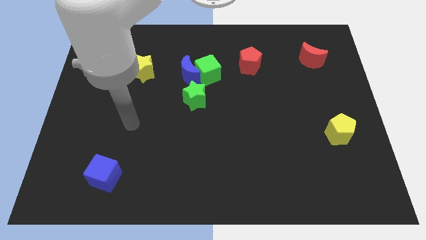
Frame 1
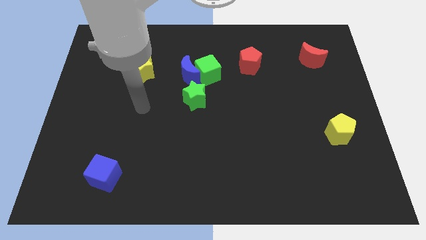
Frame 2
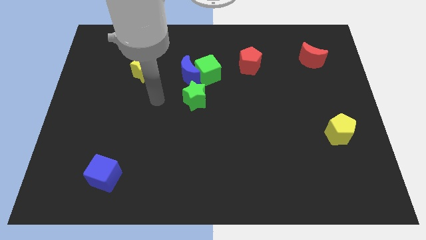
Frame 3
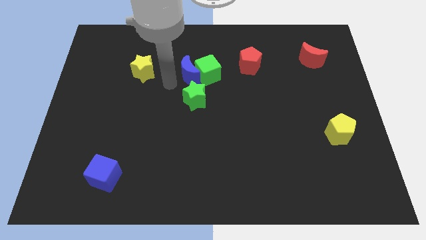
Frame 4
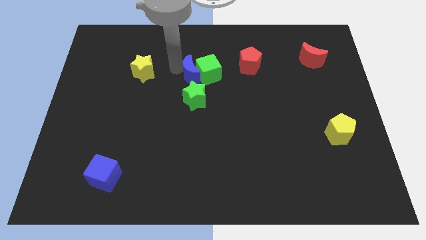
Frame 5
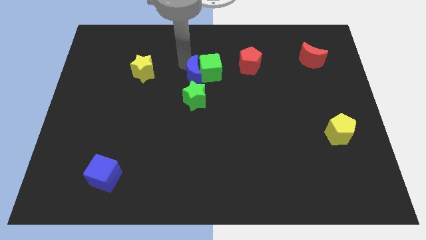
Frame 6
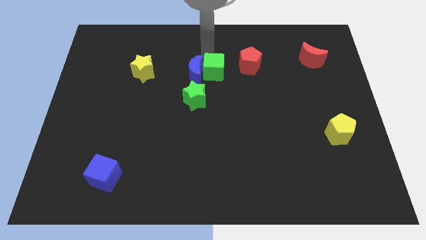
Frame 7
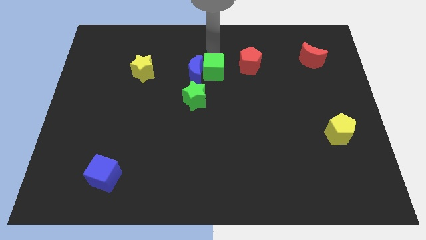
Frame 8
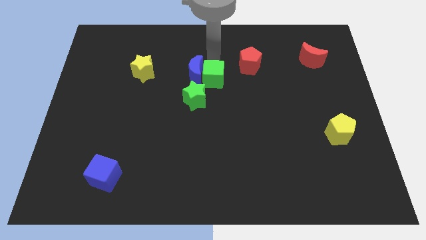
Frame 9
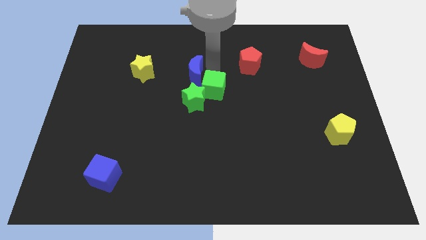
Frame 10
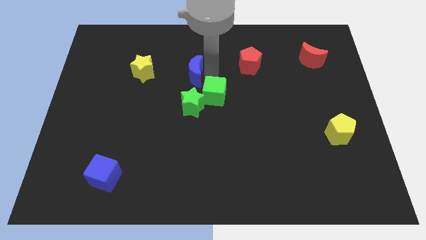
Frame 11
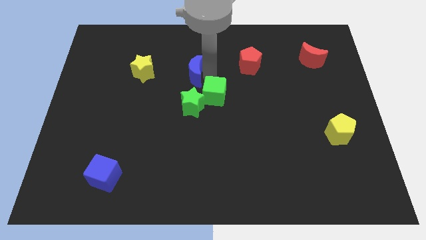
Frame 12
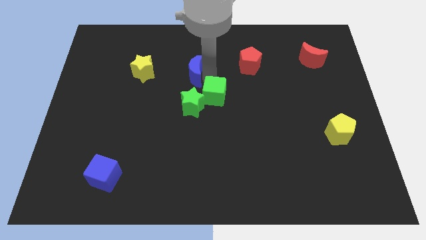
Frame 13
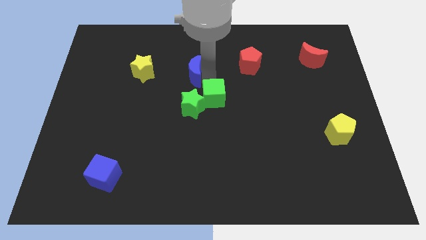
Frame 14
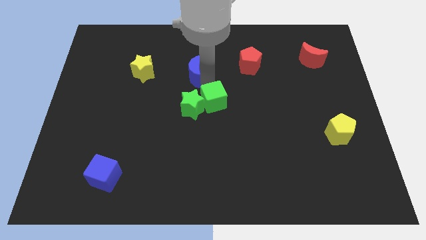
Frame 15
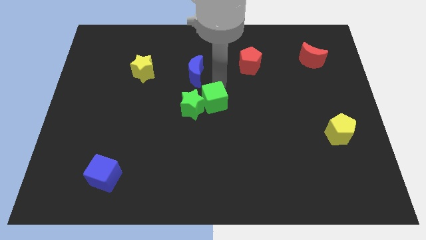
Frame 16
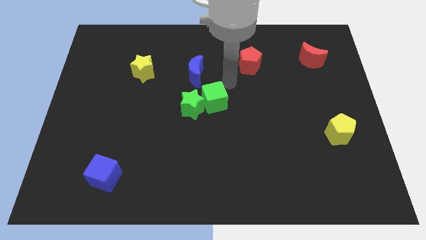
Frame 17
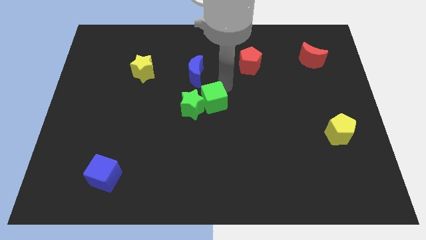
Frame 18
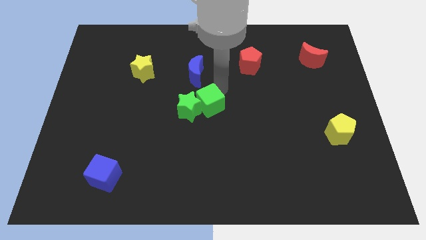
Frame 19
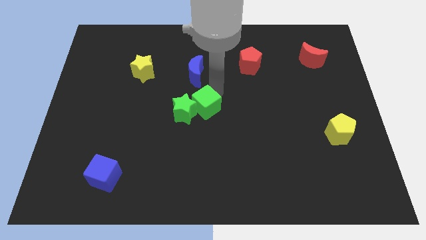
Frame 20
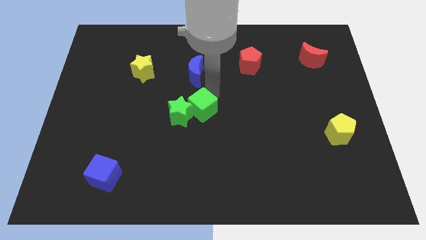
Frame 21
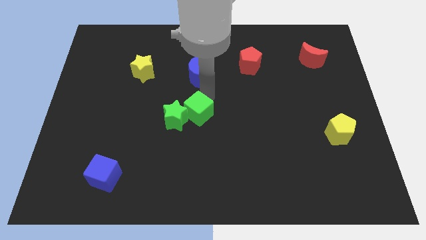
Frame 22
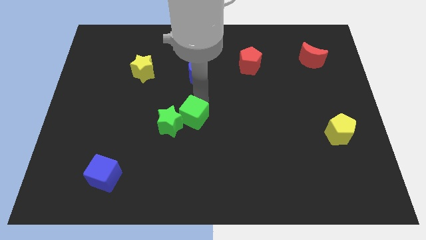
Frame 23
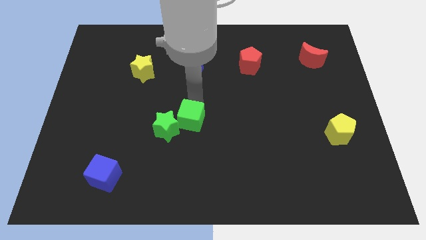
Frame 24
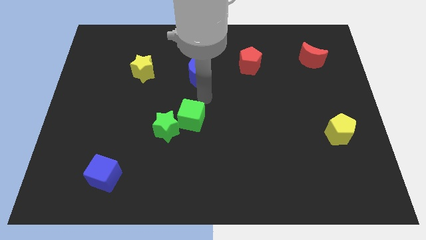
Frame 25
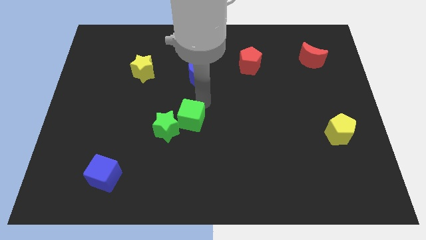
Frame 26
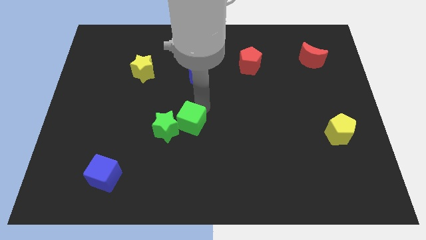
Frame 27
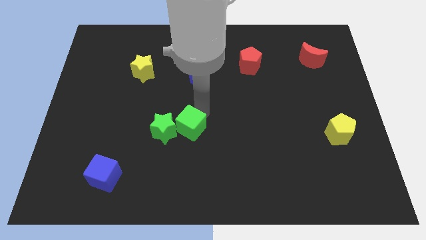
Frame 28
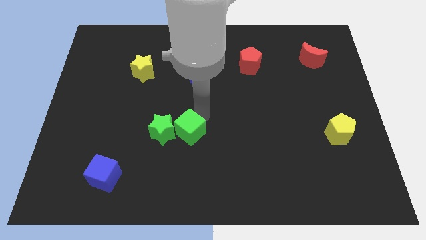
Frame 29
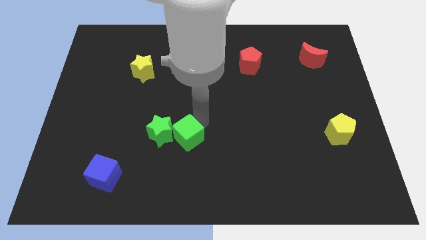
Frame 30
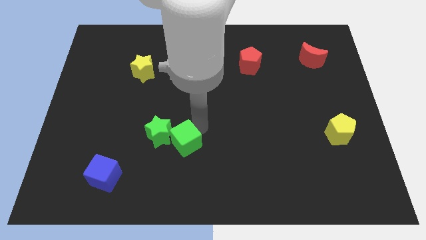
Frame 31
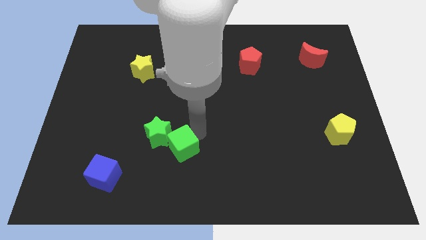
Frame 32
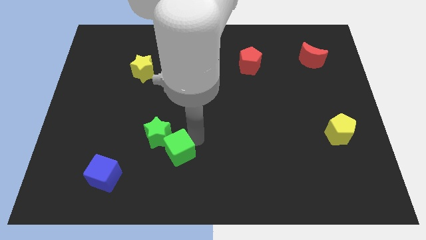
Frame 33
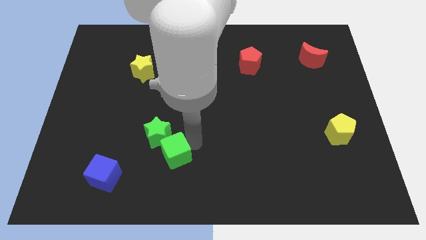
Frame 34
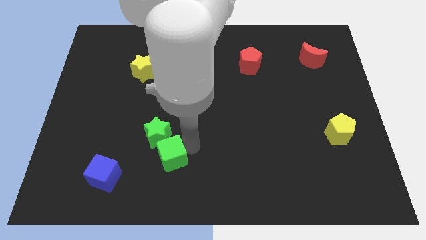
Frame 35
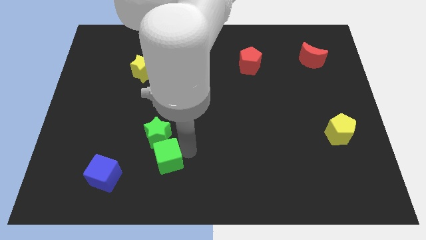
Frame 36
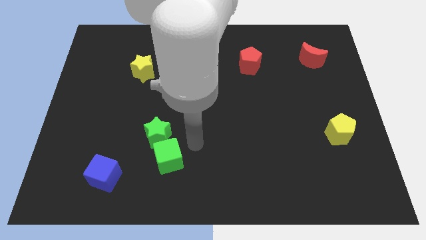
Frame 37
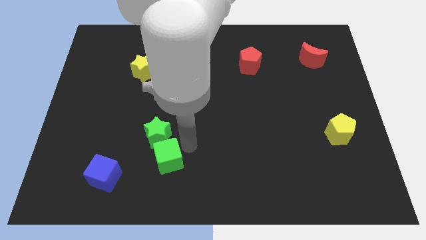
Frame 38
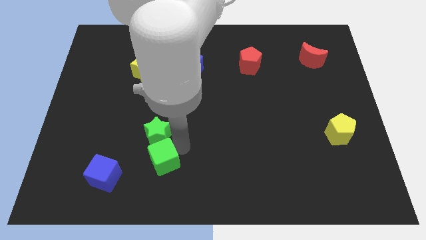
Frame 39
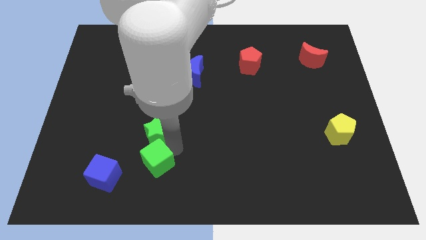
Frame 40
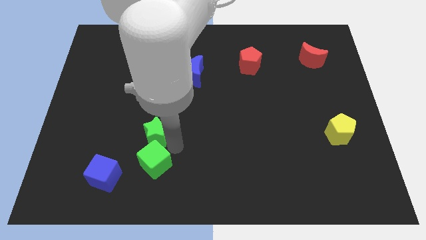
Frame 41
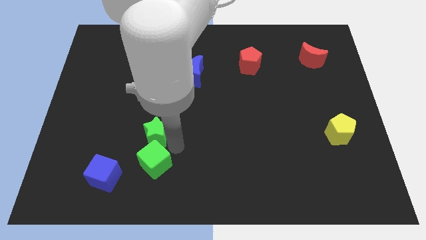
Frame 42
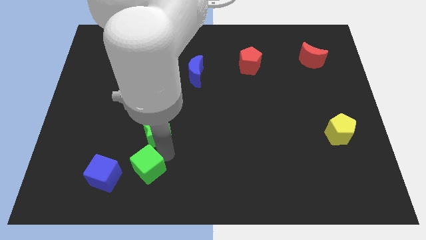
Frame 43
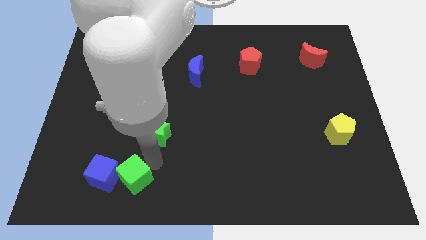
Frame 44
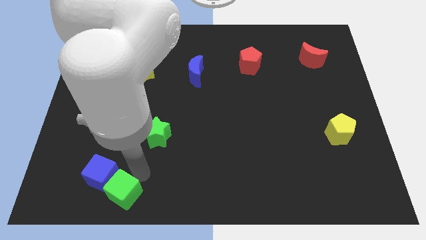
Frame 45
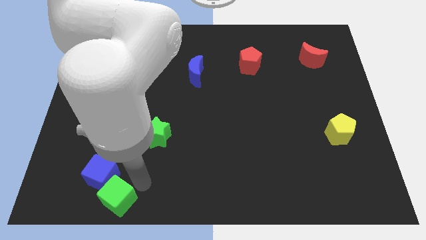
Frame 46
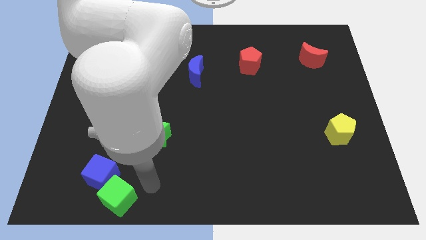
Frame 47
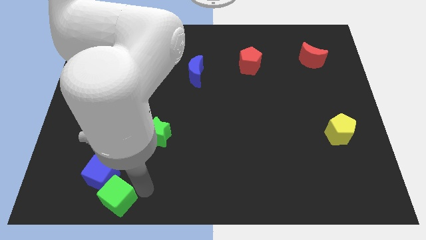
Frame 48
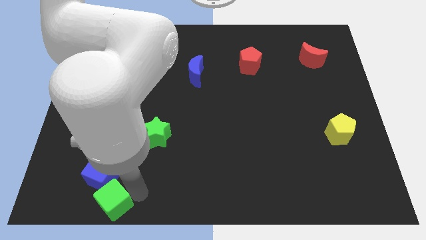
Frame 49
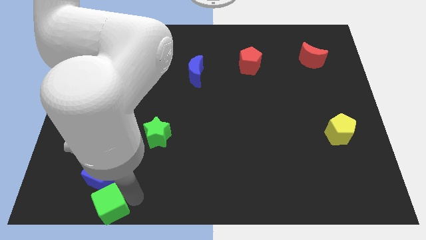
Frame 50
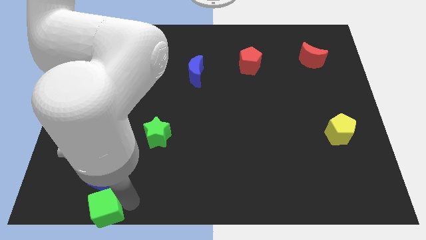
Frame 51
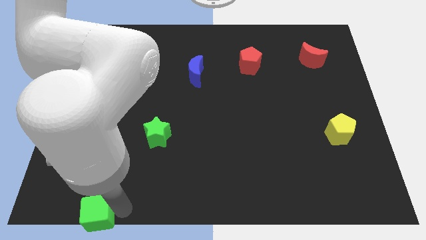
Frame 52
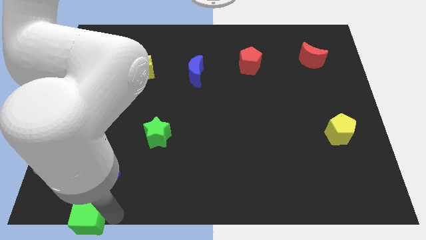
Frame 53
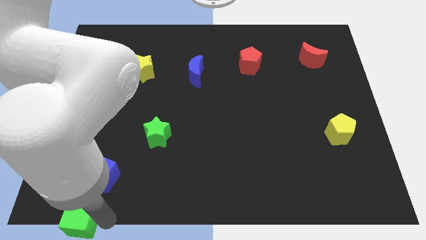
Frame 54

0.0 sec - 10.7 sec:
push the green cube to the bottom left
